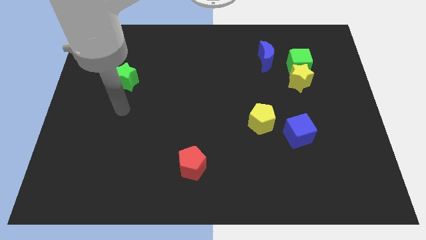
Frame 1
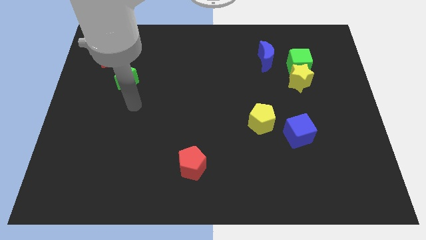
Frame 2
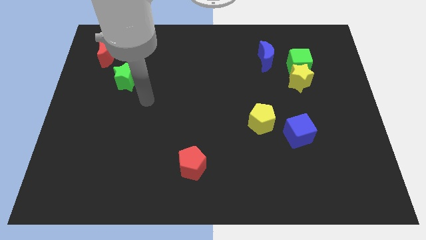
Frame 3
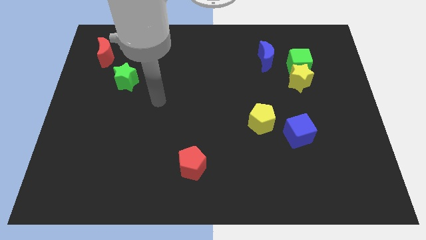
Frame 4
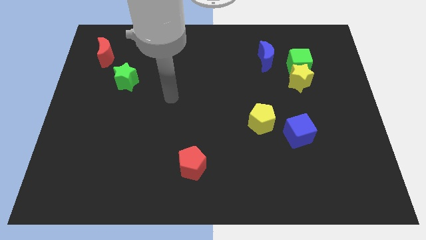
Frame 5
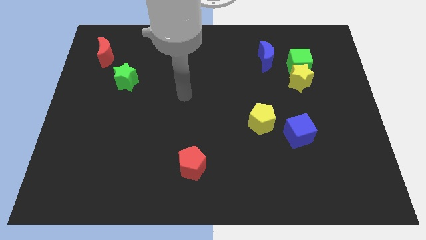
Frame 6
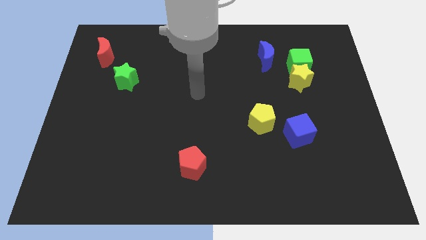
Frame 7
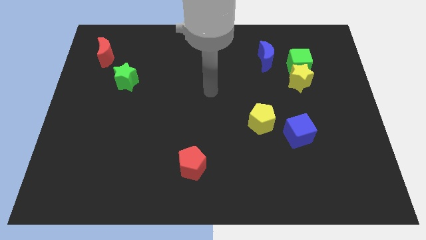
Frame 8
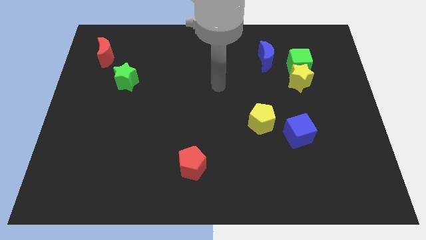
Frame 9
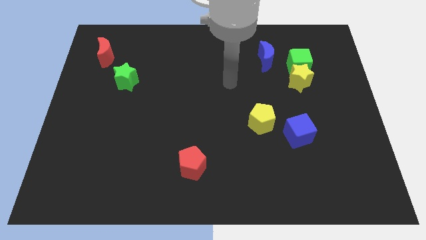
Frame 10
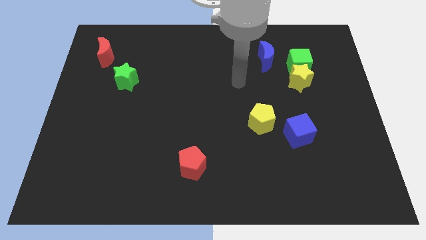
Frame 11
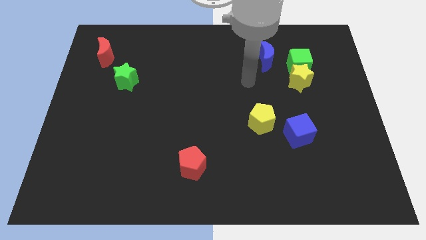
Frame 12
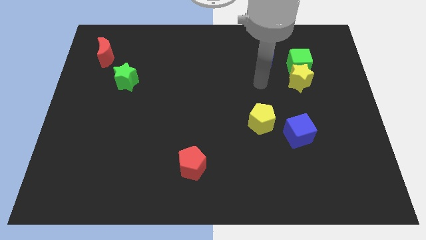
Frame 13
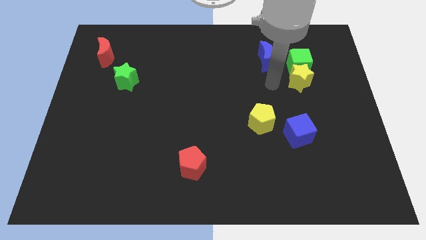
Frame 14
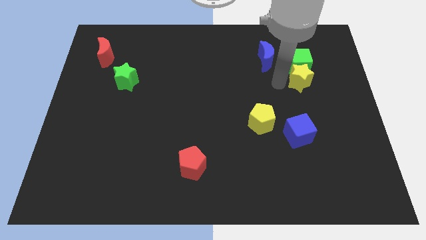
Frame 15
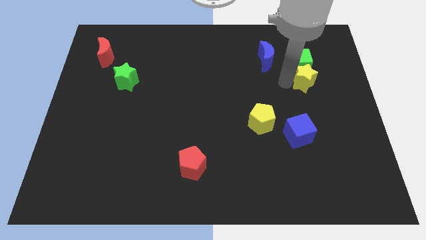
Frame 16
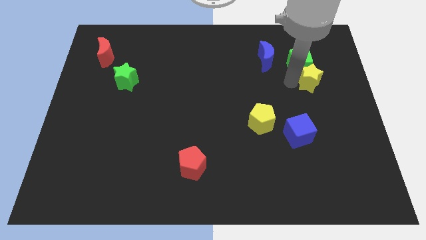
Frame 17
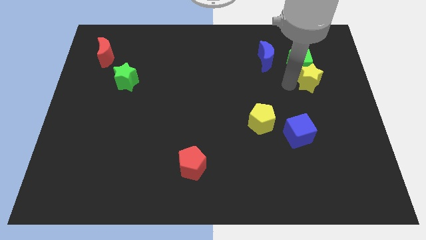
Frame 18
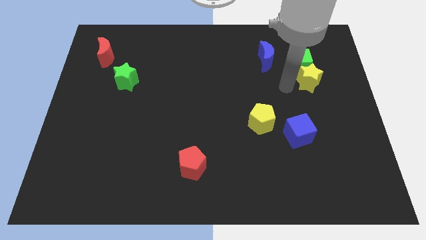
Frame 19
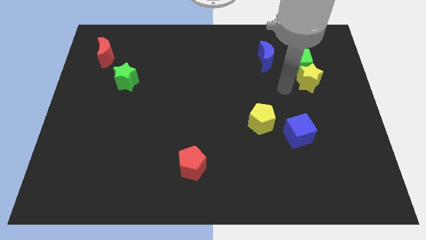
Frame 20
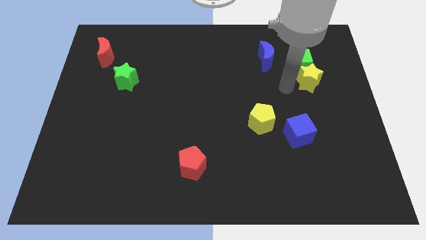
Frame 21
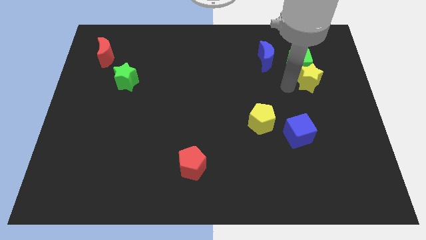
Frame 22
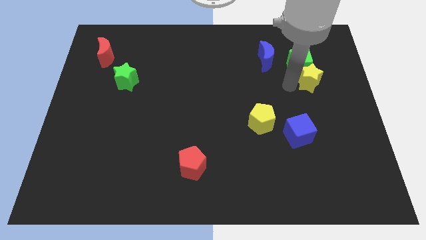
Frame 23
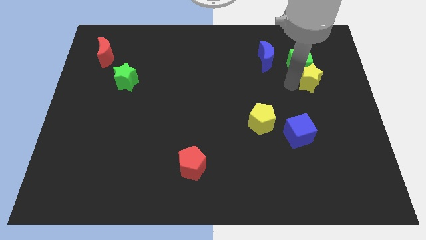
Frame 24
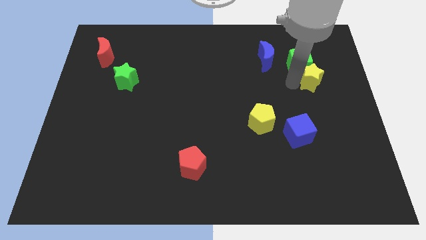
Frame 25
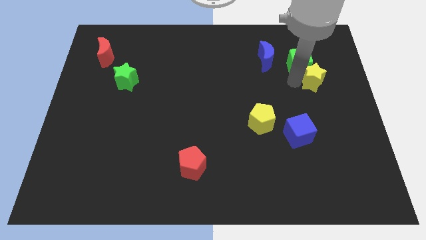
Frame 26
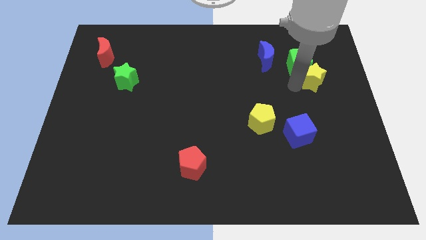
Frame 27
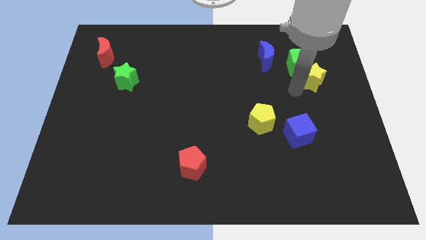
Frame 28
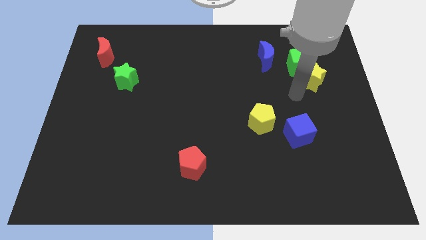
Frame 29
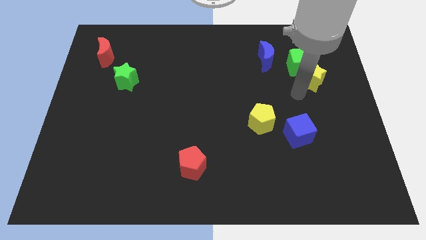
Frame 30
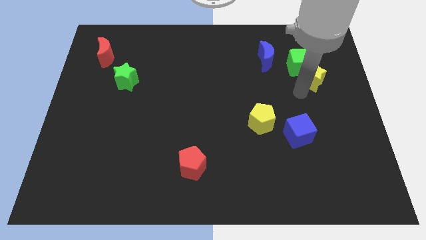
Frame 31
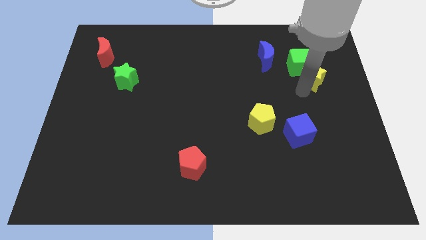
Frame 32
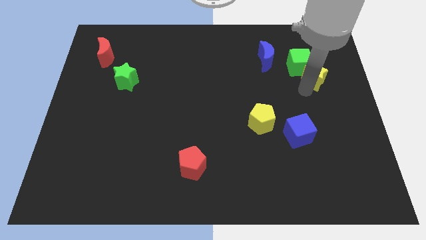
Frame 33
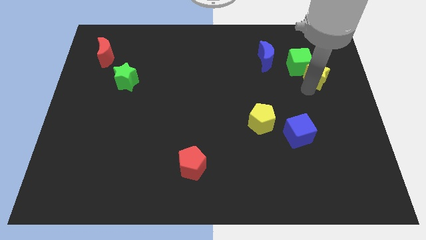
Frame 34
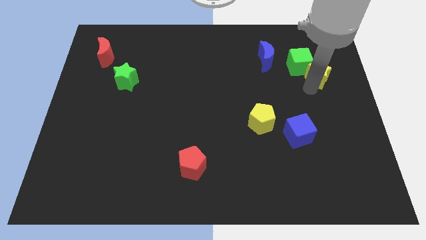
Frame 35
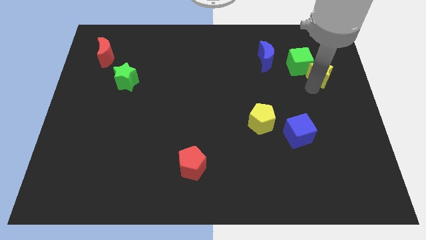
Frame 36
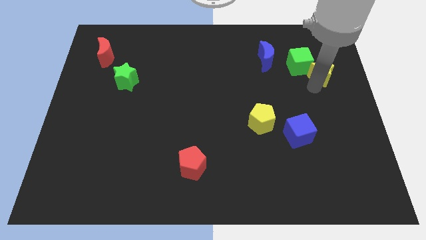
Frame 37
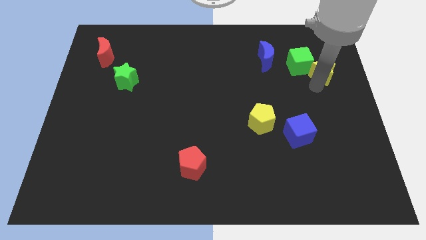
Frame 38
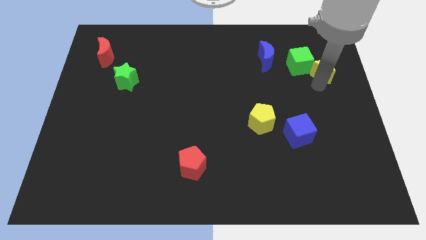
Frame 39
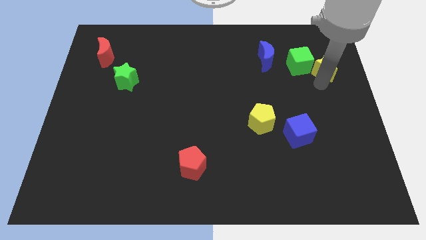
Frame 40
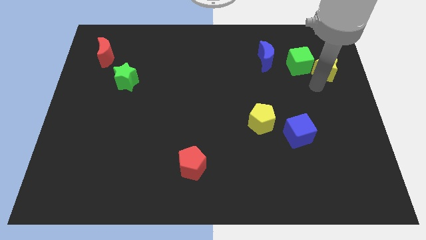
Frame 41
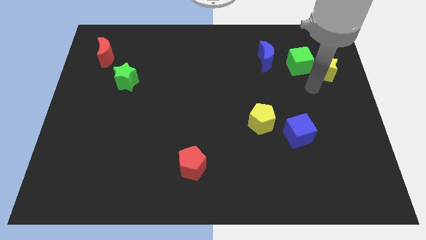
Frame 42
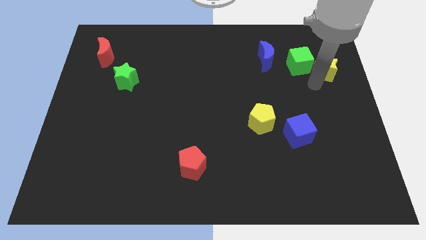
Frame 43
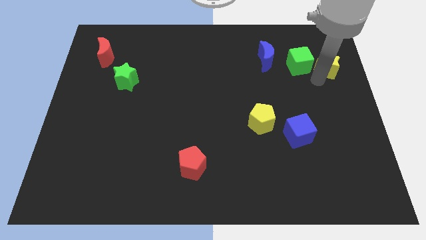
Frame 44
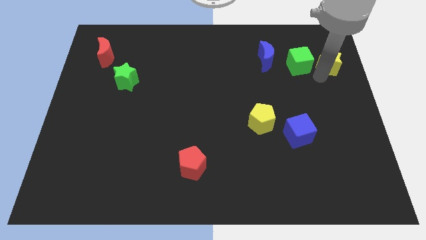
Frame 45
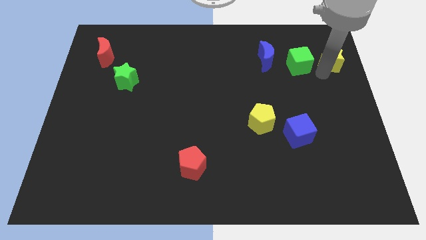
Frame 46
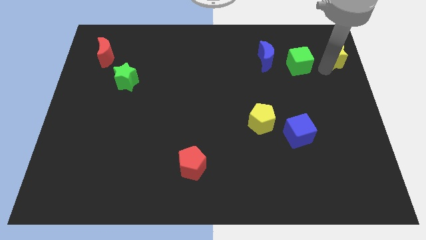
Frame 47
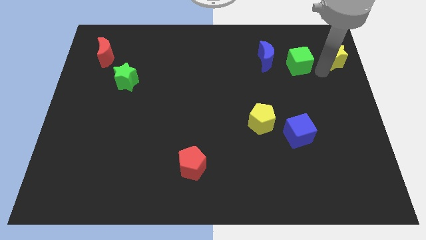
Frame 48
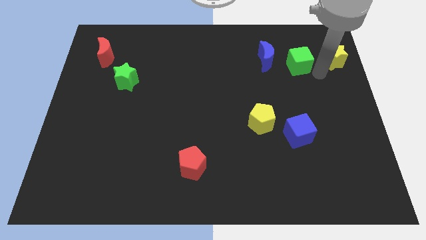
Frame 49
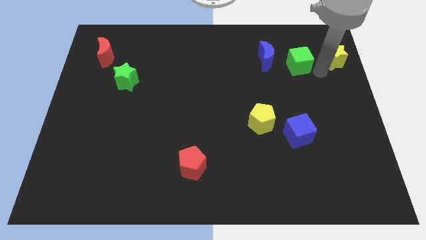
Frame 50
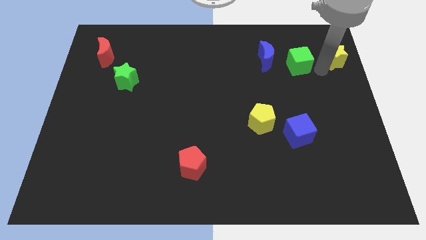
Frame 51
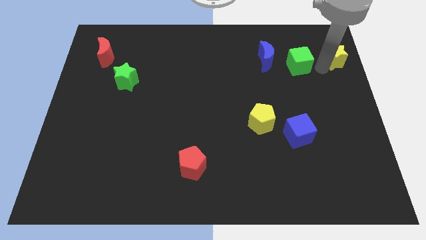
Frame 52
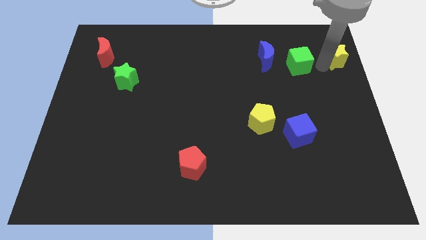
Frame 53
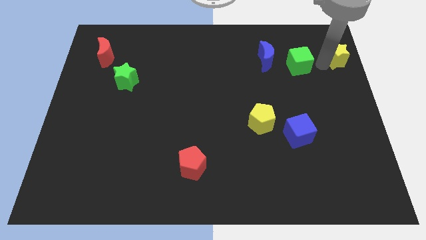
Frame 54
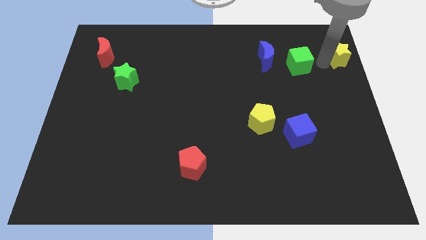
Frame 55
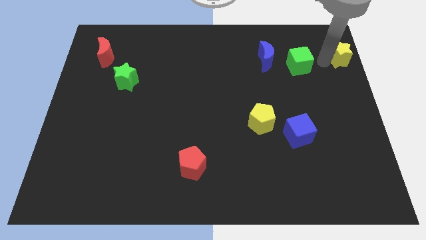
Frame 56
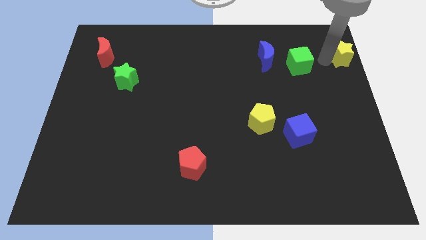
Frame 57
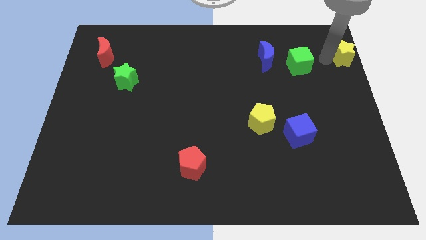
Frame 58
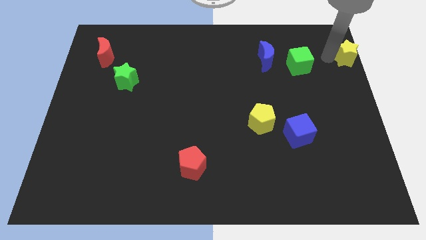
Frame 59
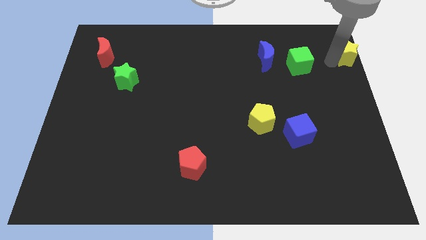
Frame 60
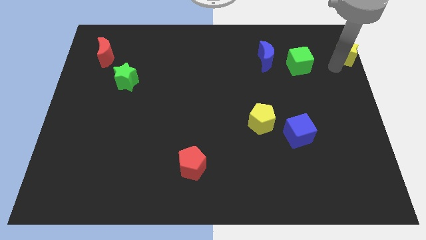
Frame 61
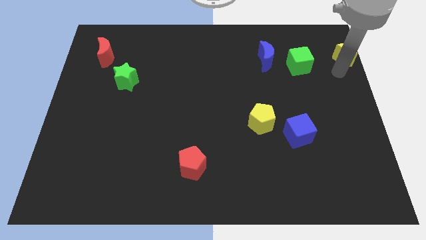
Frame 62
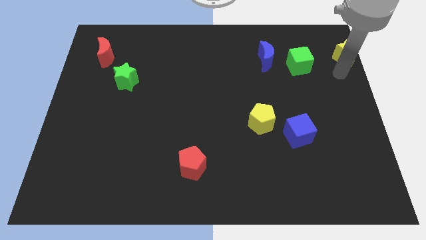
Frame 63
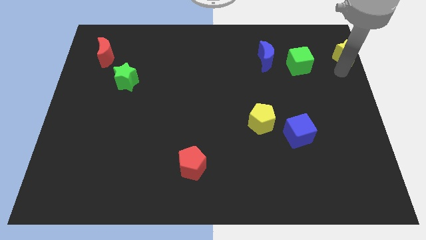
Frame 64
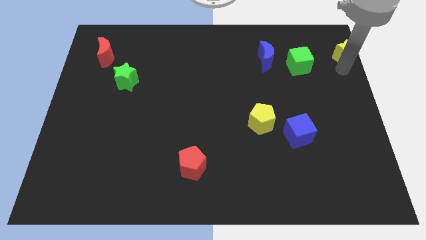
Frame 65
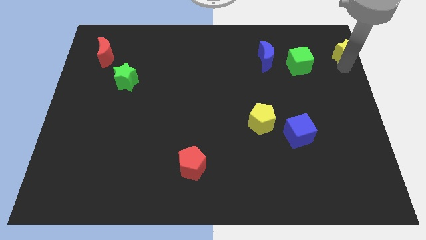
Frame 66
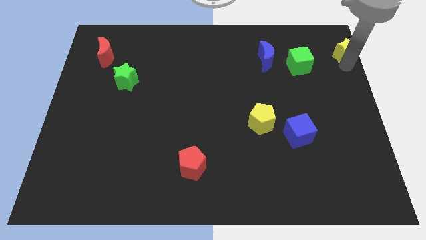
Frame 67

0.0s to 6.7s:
slide the yellow star to the top right corner
